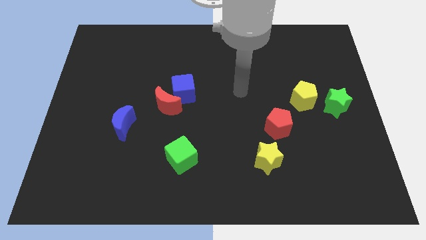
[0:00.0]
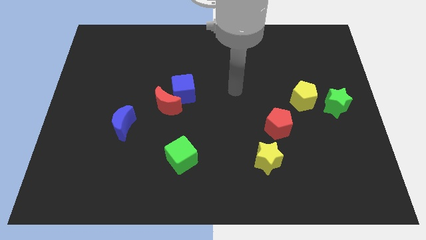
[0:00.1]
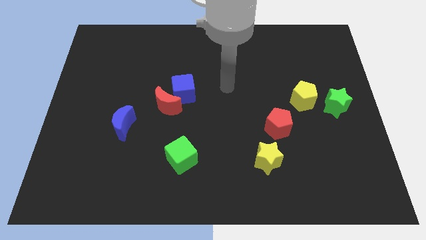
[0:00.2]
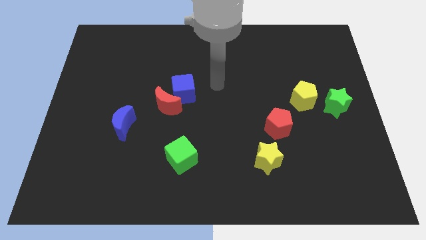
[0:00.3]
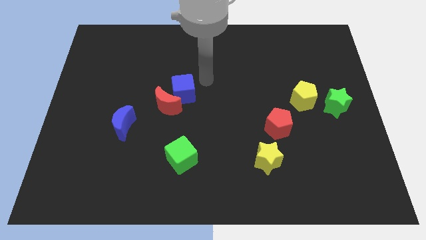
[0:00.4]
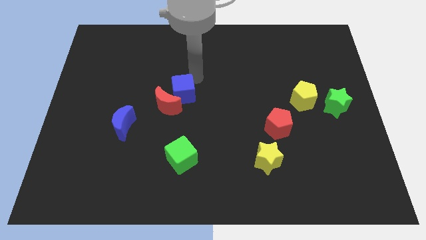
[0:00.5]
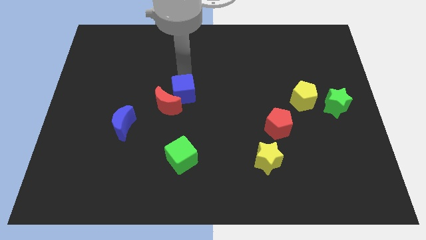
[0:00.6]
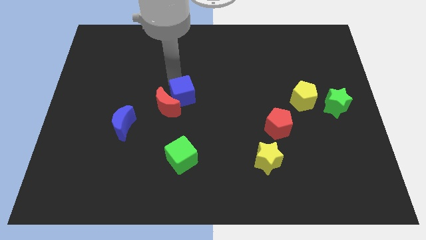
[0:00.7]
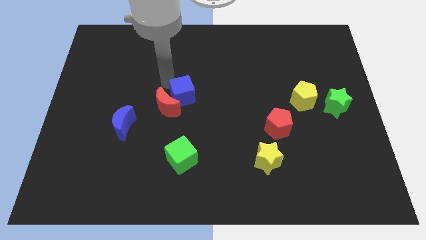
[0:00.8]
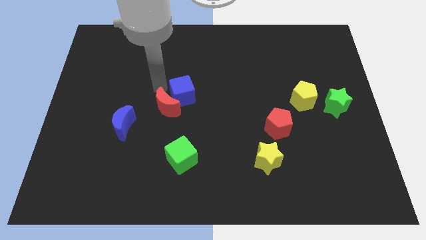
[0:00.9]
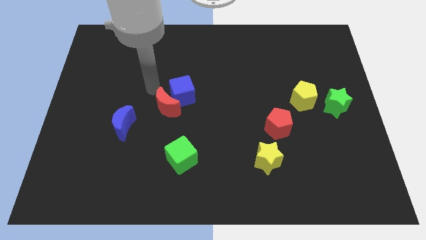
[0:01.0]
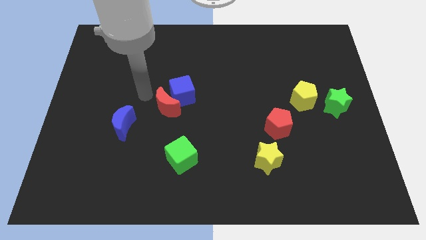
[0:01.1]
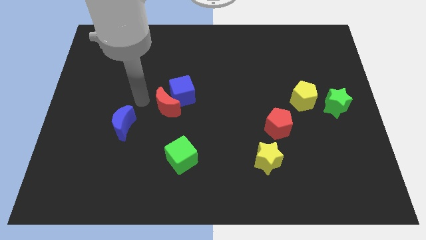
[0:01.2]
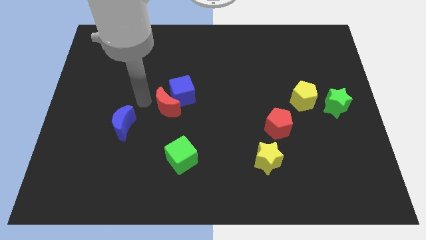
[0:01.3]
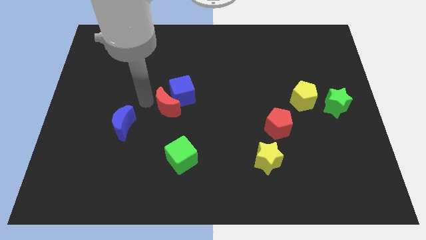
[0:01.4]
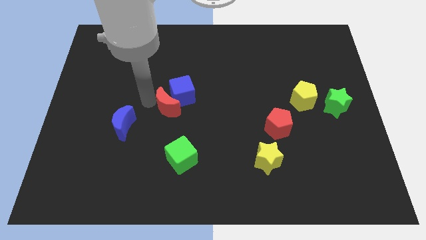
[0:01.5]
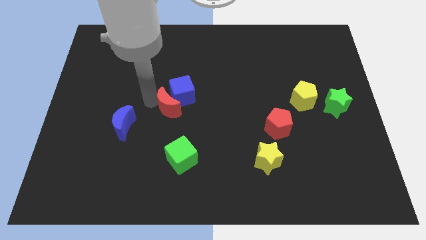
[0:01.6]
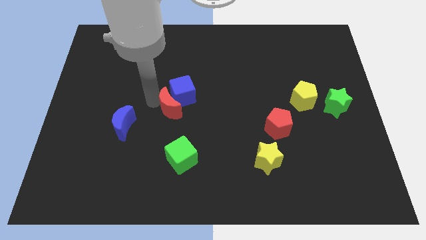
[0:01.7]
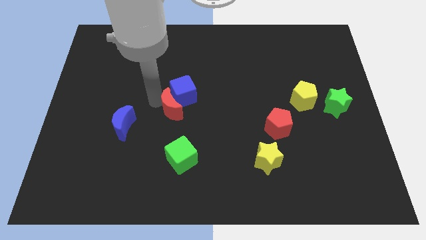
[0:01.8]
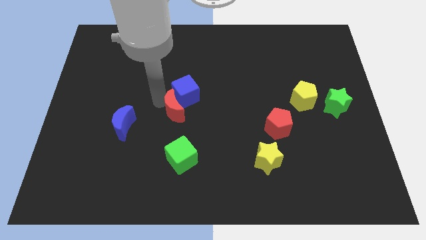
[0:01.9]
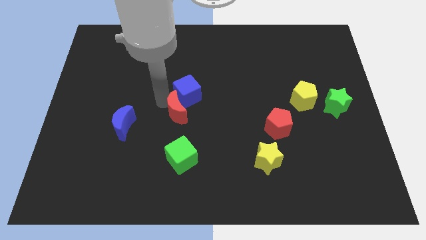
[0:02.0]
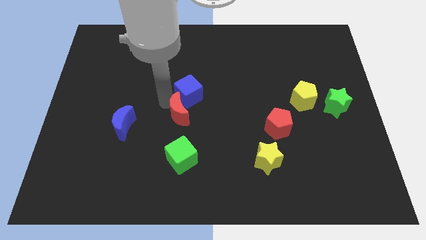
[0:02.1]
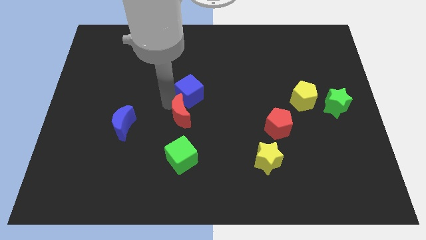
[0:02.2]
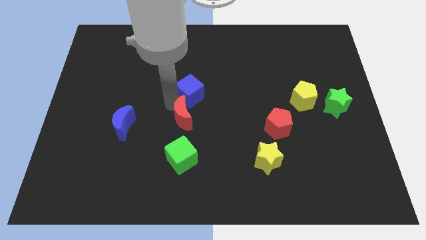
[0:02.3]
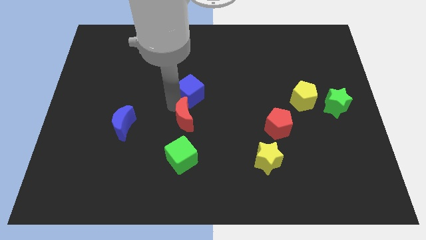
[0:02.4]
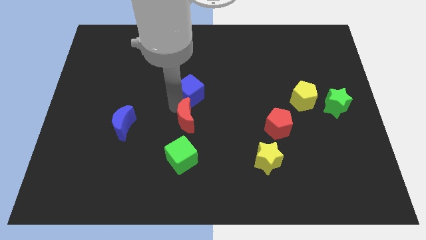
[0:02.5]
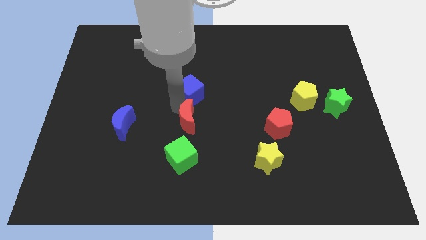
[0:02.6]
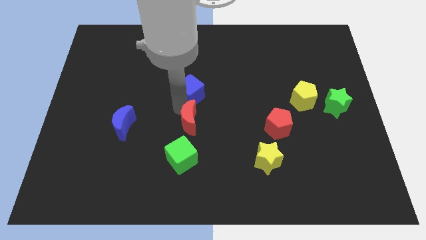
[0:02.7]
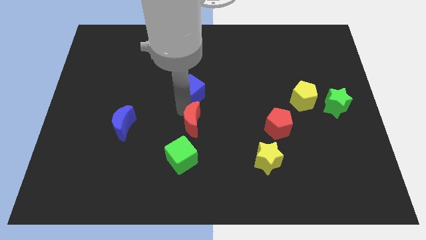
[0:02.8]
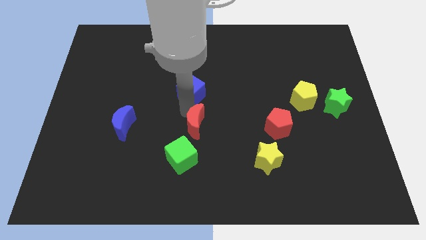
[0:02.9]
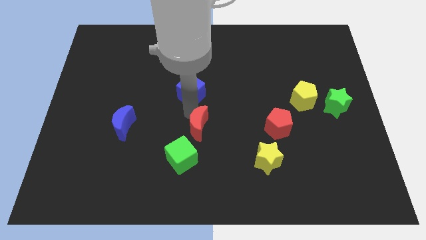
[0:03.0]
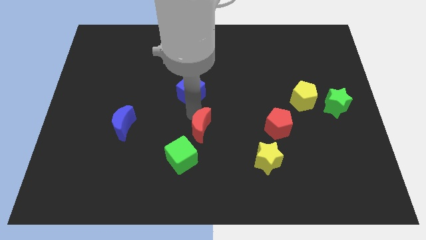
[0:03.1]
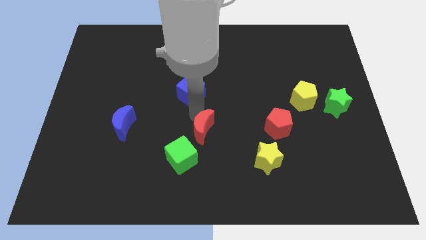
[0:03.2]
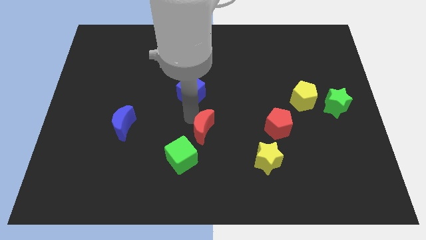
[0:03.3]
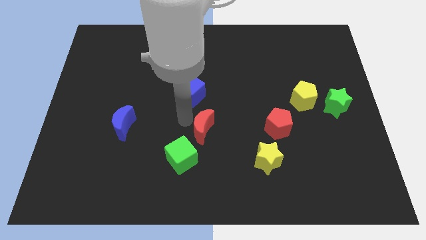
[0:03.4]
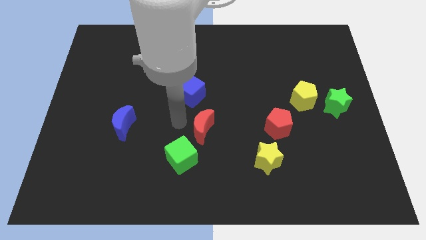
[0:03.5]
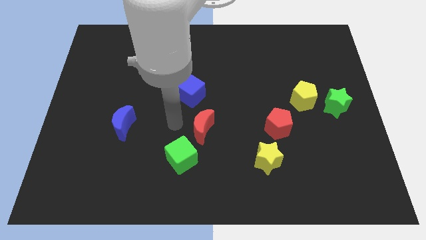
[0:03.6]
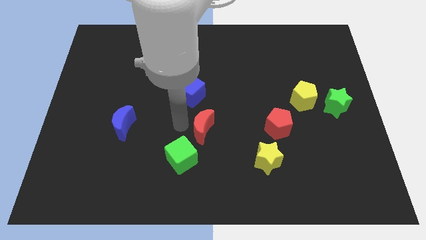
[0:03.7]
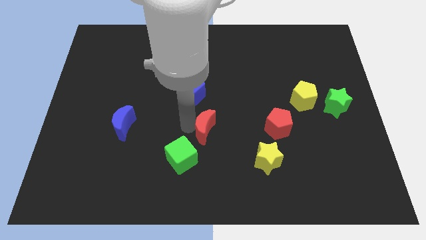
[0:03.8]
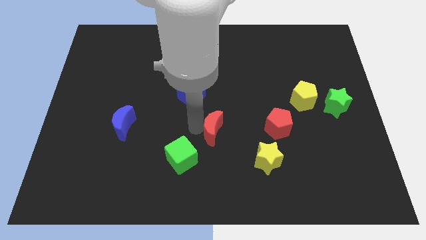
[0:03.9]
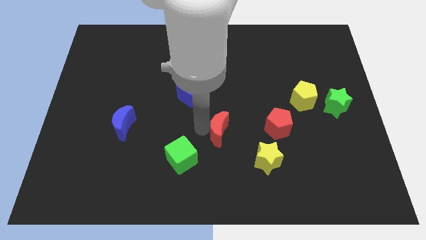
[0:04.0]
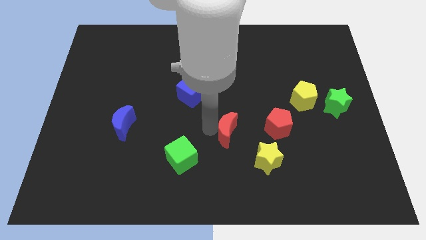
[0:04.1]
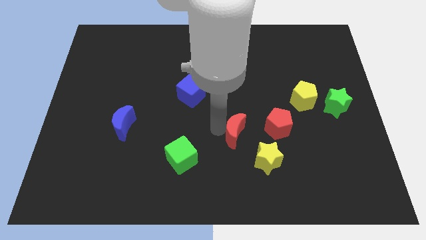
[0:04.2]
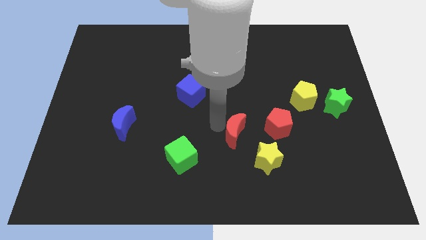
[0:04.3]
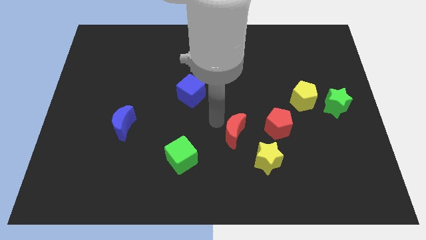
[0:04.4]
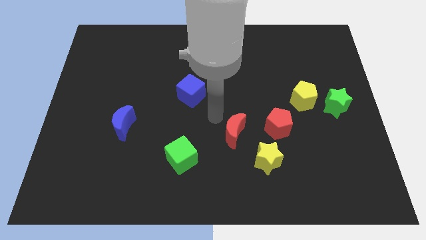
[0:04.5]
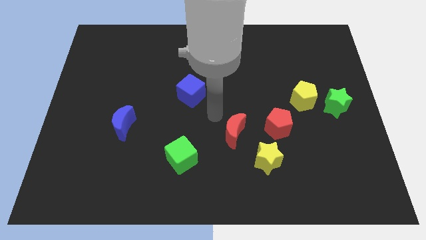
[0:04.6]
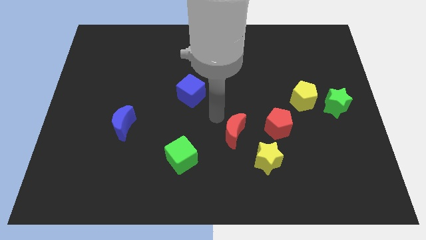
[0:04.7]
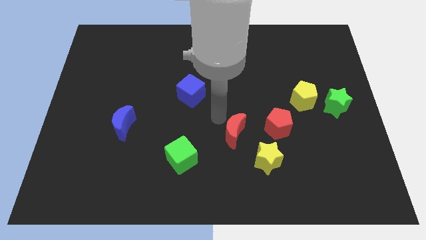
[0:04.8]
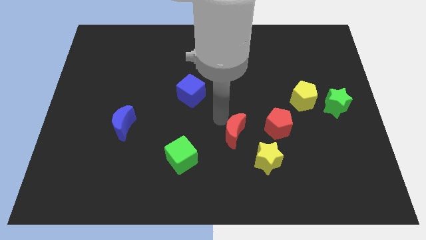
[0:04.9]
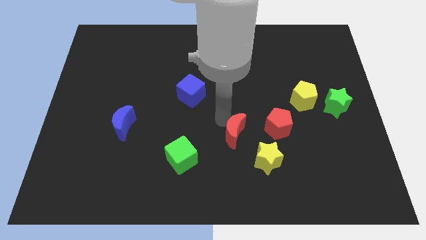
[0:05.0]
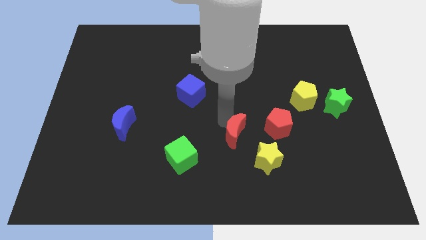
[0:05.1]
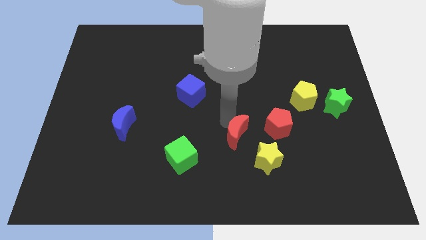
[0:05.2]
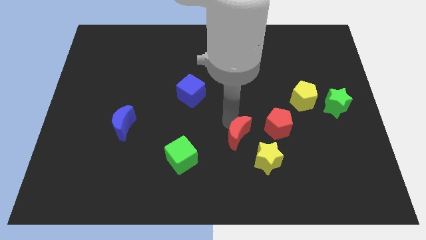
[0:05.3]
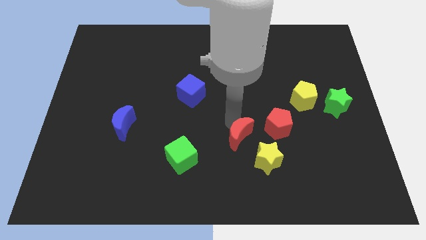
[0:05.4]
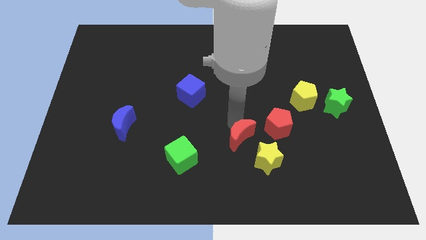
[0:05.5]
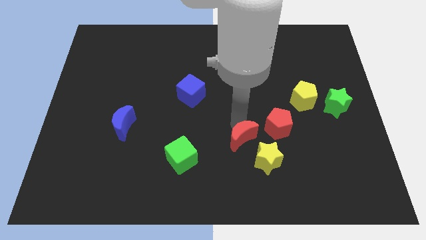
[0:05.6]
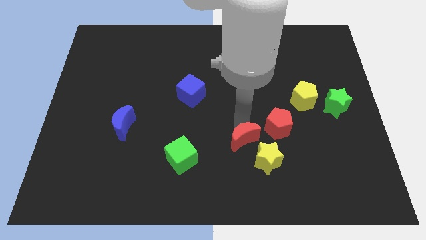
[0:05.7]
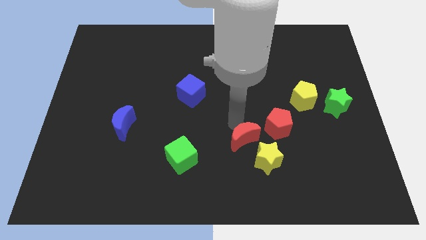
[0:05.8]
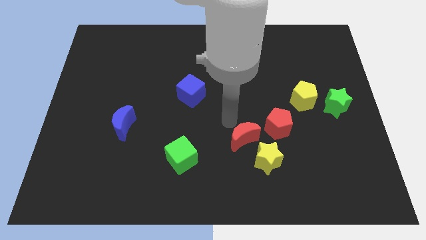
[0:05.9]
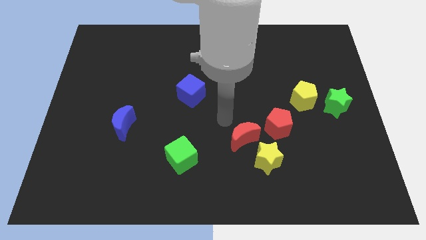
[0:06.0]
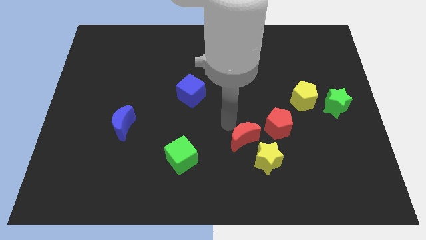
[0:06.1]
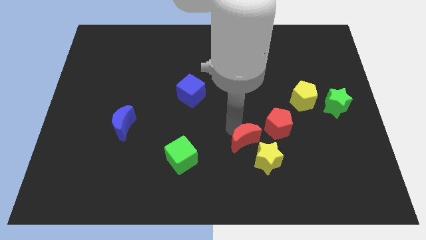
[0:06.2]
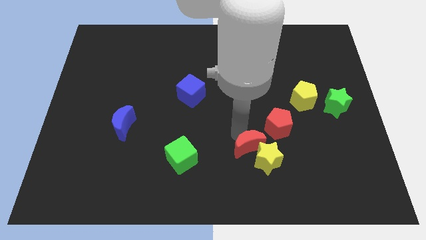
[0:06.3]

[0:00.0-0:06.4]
put the red moon to the yellow star

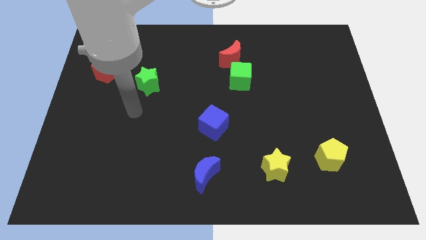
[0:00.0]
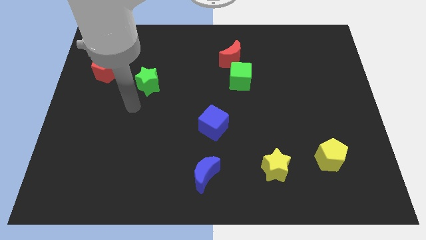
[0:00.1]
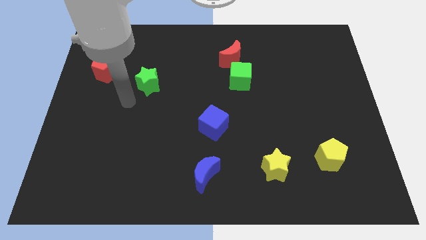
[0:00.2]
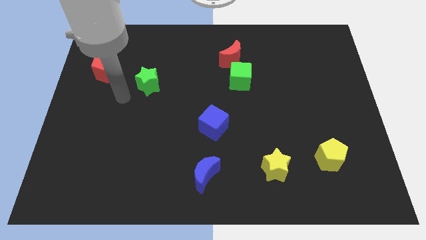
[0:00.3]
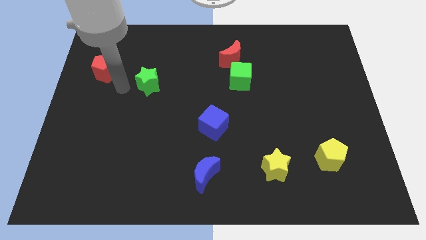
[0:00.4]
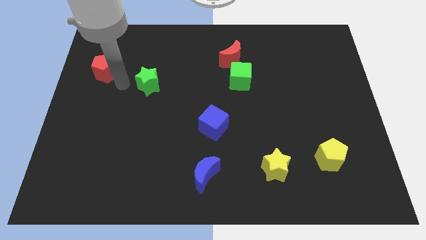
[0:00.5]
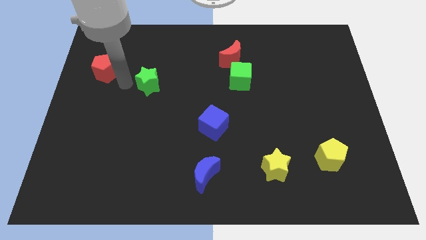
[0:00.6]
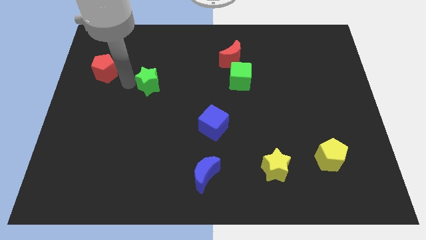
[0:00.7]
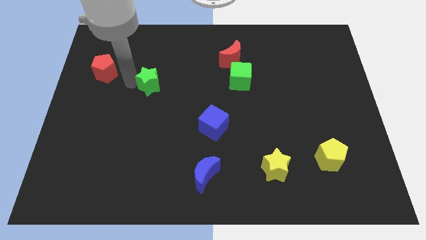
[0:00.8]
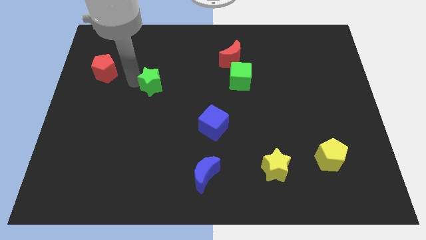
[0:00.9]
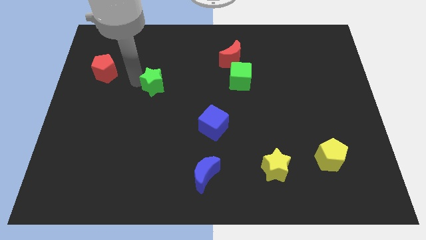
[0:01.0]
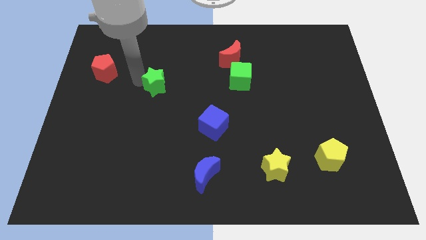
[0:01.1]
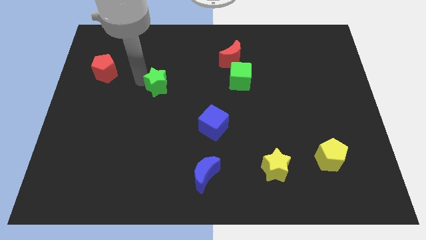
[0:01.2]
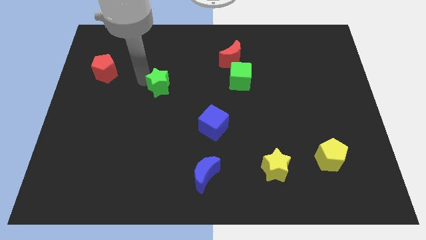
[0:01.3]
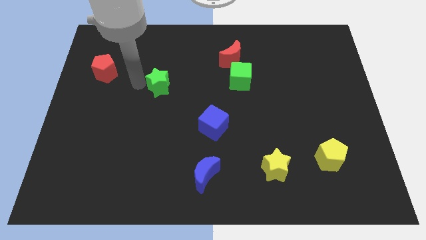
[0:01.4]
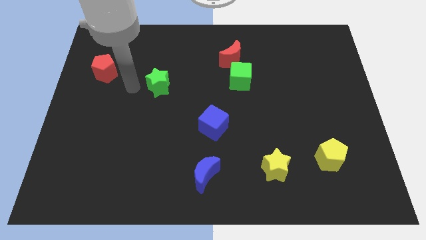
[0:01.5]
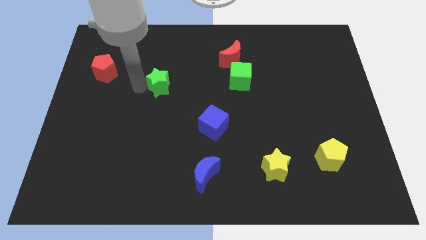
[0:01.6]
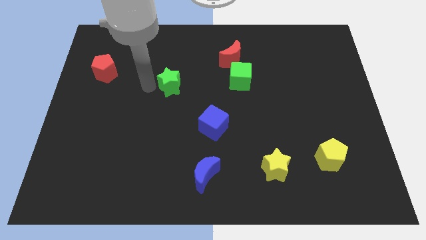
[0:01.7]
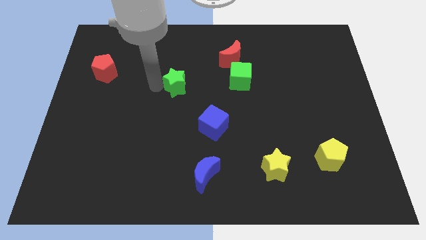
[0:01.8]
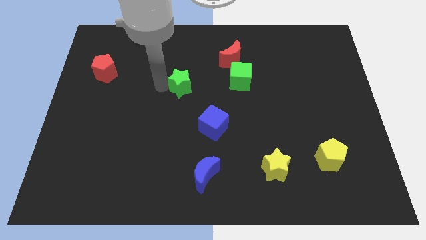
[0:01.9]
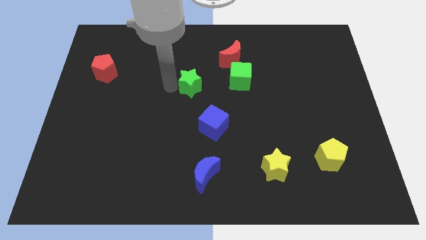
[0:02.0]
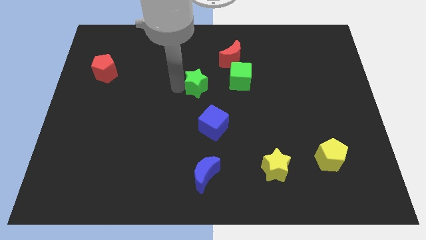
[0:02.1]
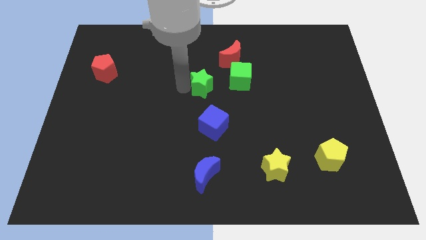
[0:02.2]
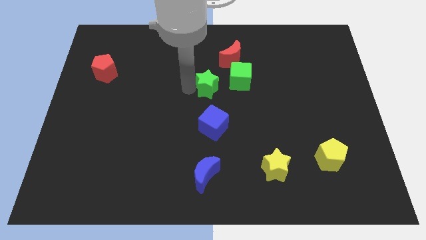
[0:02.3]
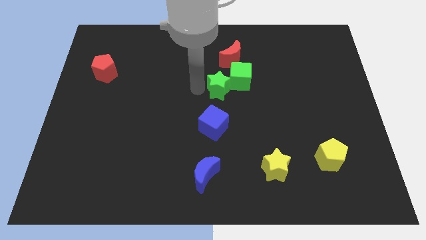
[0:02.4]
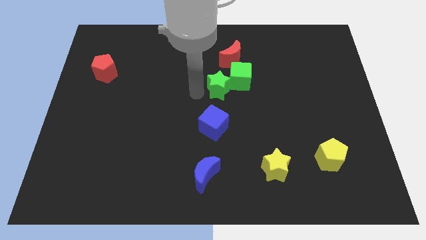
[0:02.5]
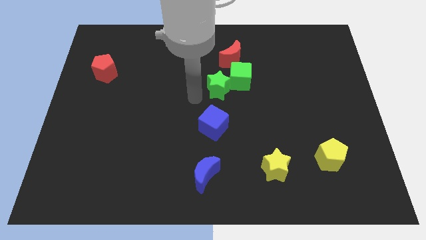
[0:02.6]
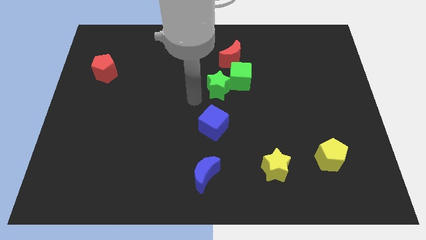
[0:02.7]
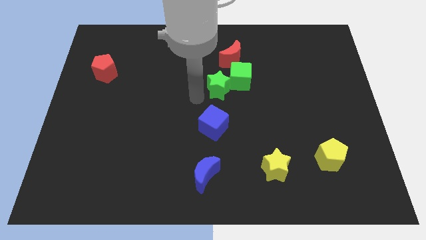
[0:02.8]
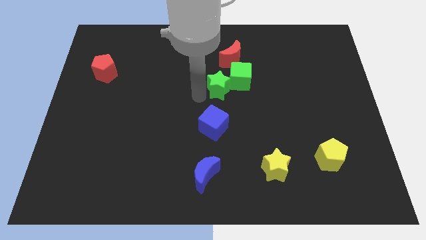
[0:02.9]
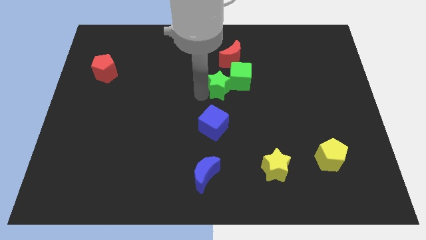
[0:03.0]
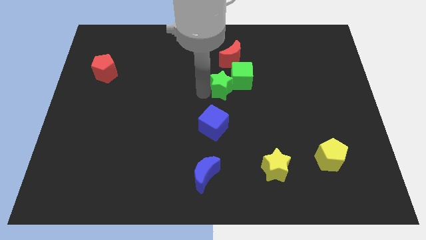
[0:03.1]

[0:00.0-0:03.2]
put the green star next to the green cube
